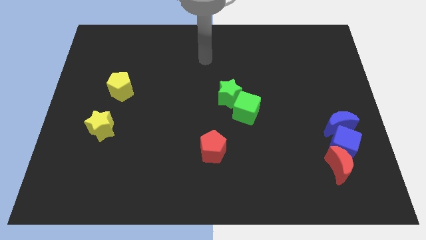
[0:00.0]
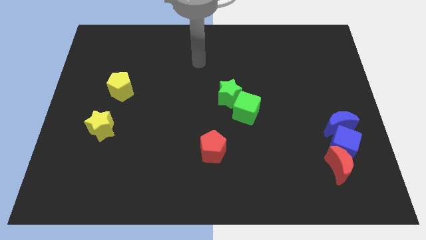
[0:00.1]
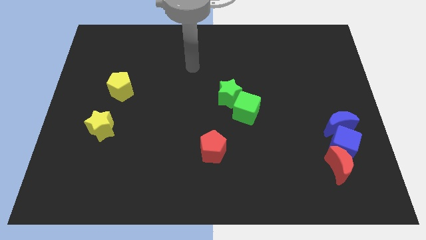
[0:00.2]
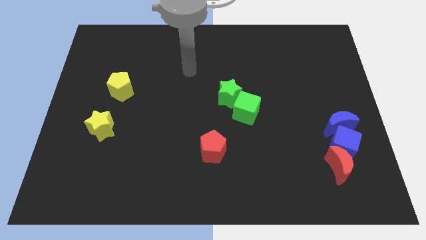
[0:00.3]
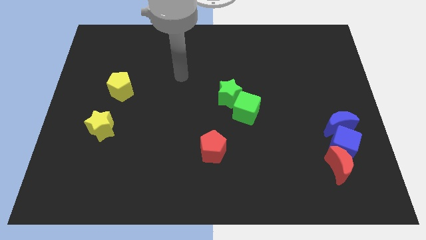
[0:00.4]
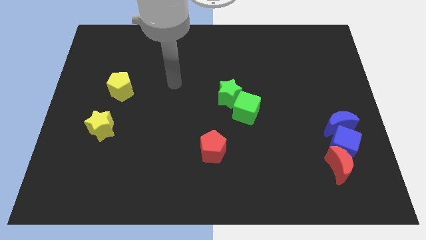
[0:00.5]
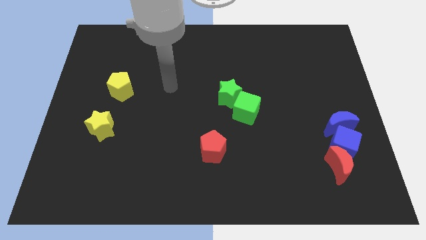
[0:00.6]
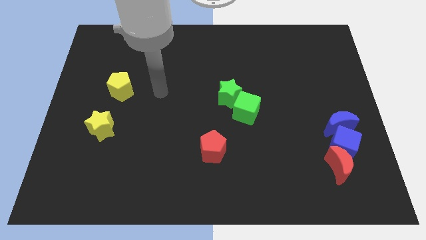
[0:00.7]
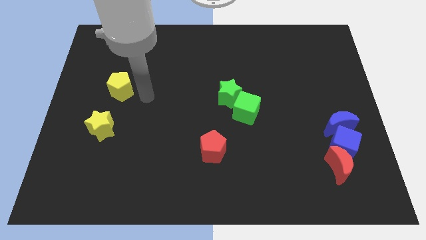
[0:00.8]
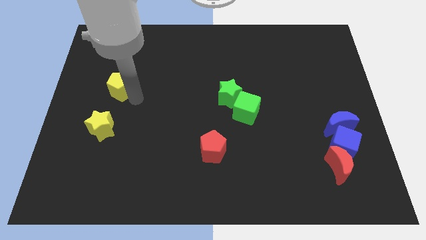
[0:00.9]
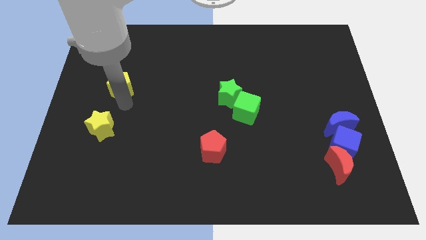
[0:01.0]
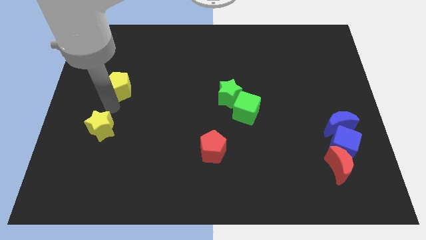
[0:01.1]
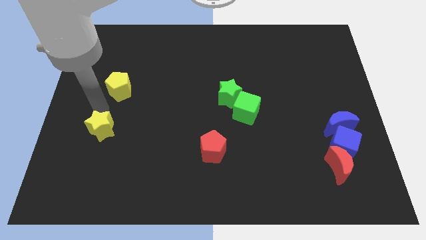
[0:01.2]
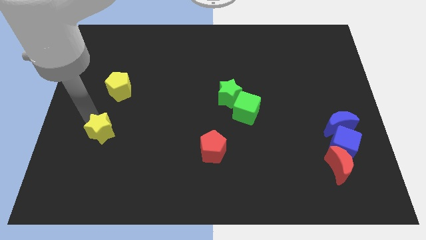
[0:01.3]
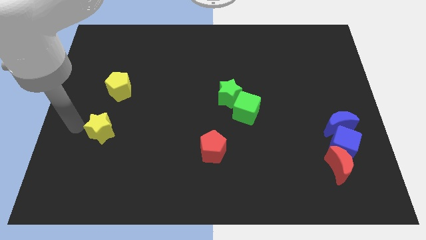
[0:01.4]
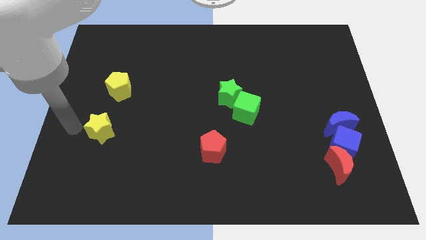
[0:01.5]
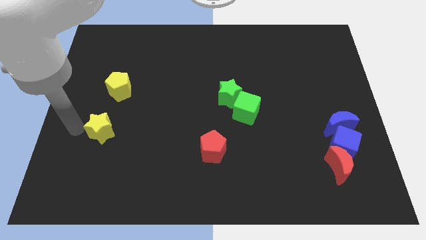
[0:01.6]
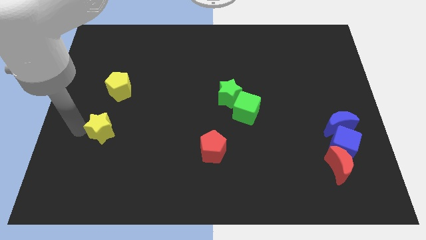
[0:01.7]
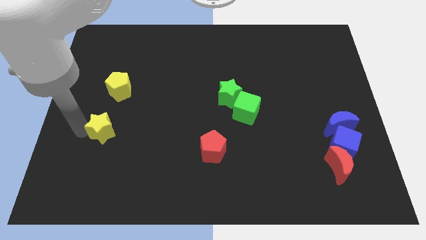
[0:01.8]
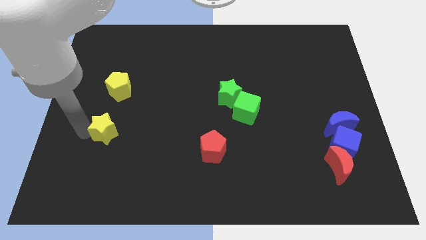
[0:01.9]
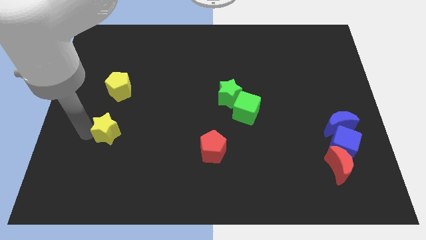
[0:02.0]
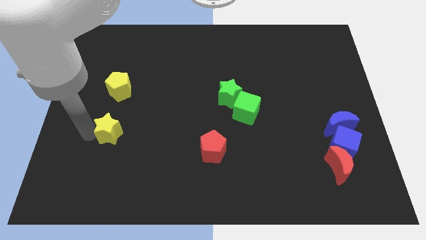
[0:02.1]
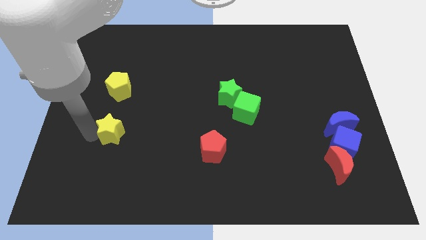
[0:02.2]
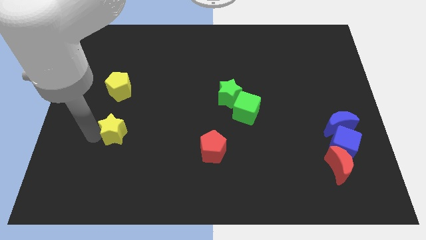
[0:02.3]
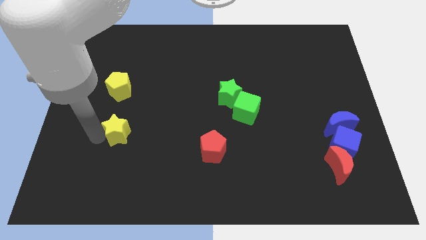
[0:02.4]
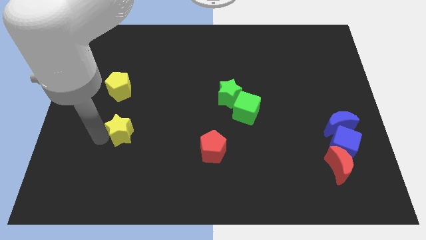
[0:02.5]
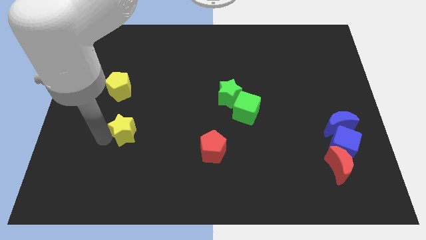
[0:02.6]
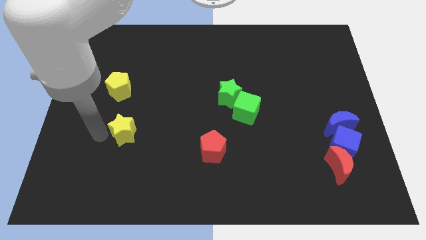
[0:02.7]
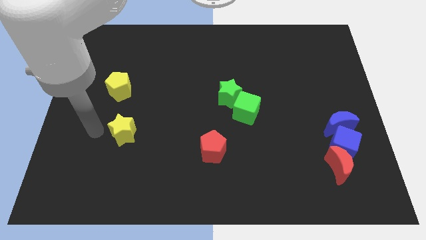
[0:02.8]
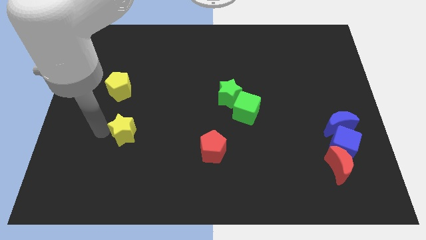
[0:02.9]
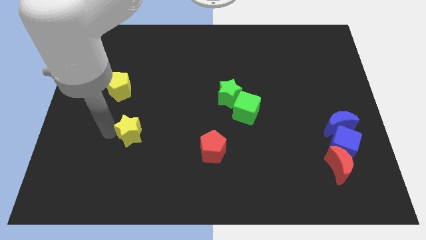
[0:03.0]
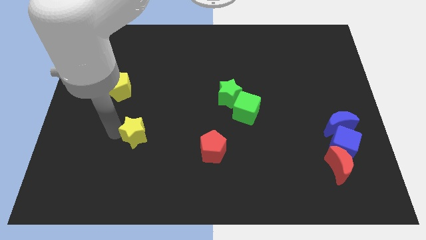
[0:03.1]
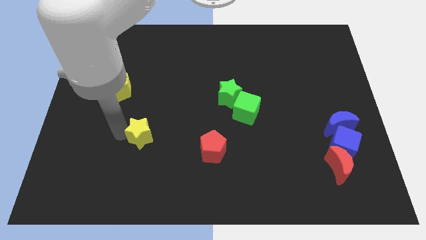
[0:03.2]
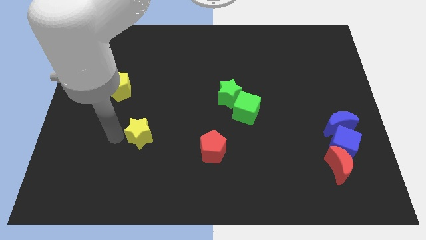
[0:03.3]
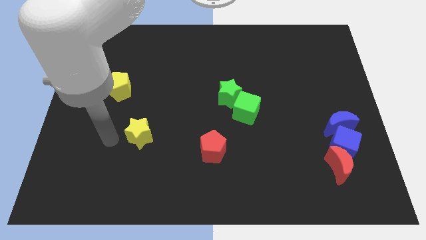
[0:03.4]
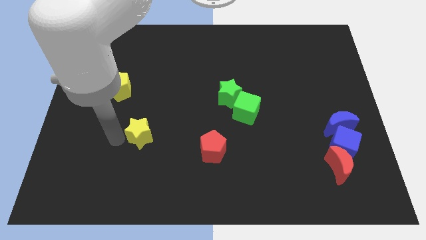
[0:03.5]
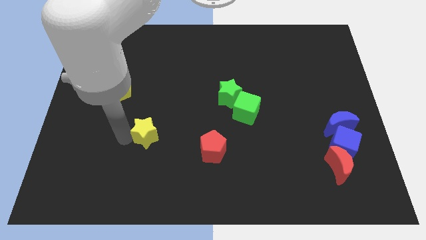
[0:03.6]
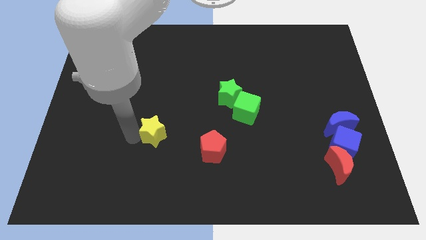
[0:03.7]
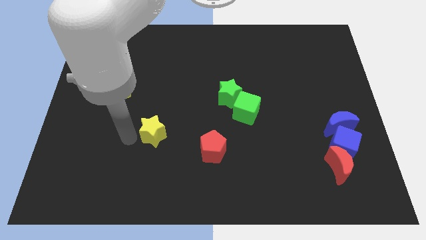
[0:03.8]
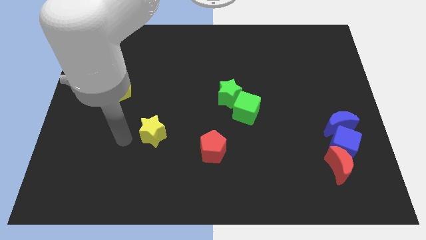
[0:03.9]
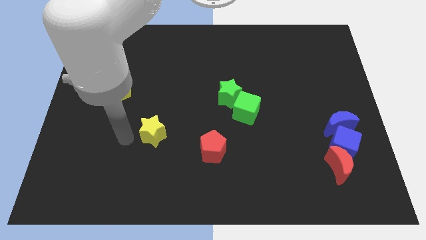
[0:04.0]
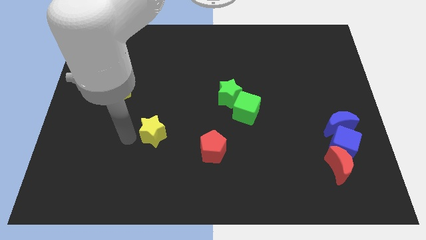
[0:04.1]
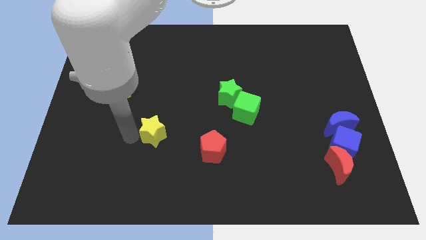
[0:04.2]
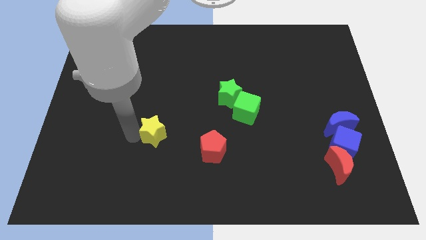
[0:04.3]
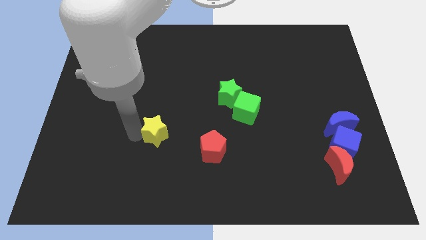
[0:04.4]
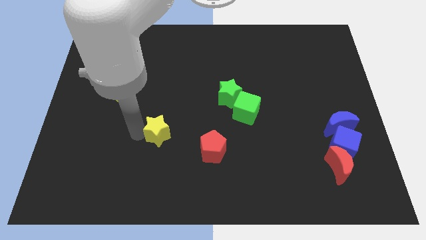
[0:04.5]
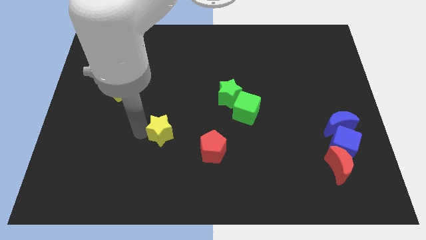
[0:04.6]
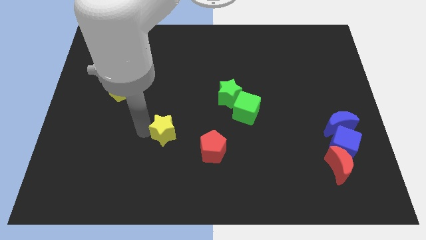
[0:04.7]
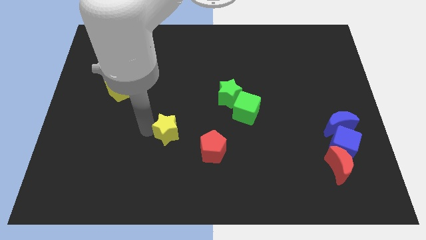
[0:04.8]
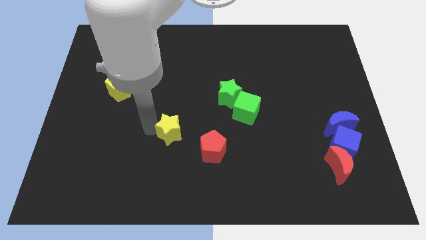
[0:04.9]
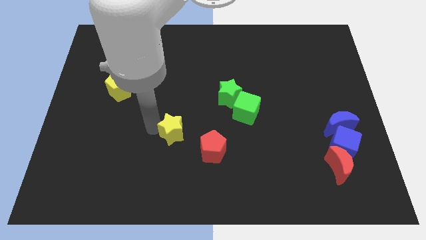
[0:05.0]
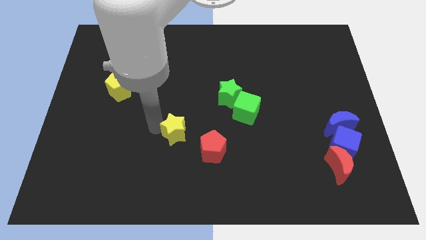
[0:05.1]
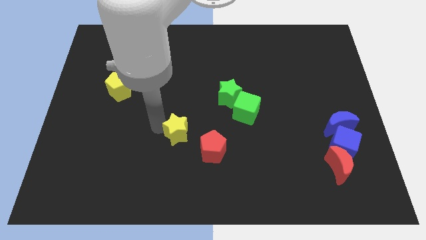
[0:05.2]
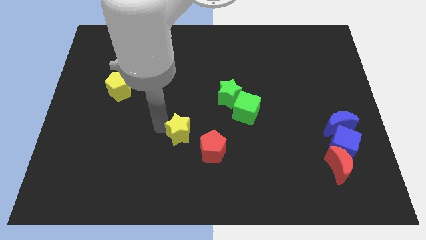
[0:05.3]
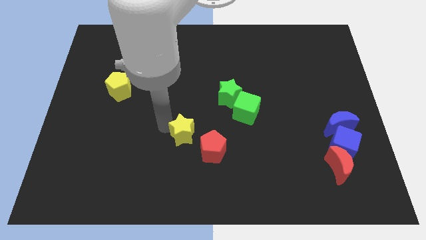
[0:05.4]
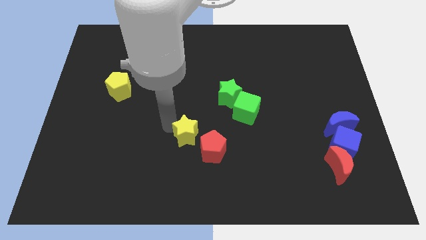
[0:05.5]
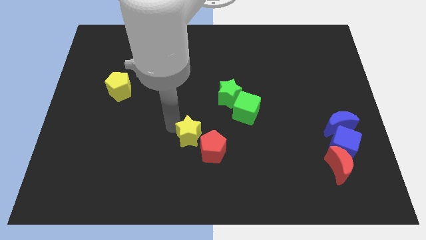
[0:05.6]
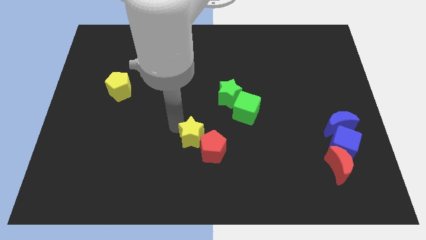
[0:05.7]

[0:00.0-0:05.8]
slide the yellow star to the red pentagon

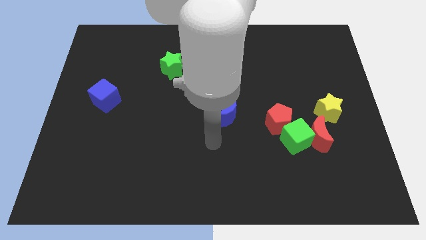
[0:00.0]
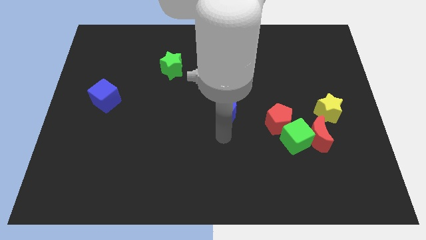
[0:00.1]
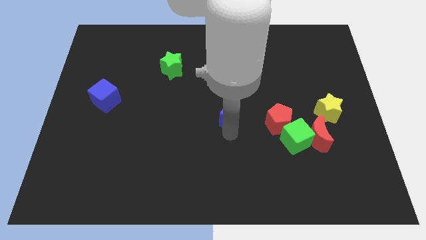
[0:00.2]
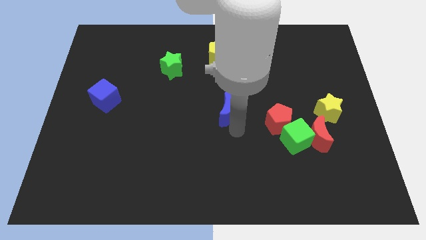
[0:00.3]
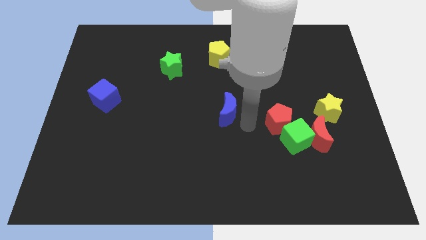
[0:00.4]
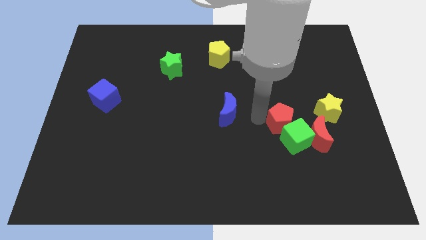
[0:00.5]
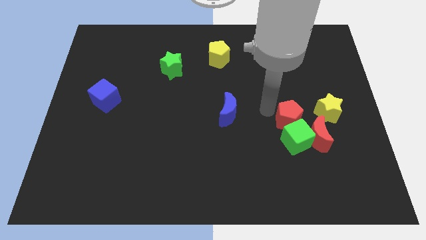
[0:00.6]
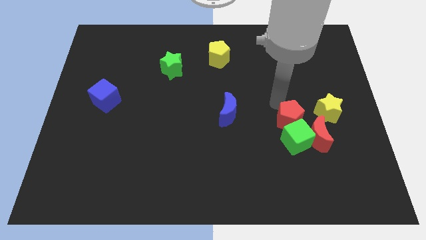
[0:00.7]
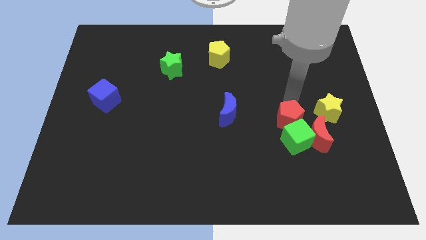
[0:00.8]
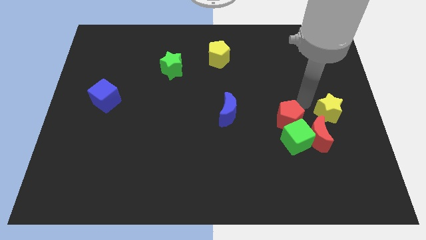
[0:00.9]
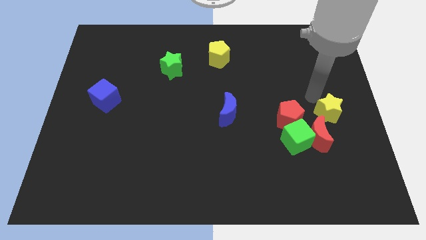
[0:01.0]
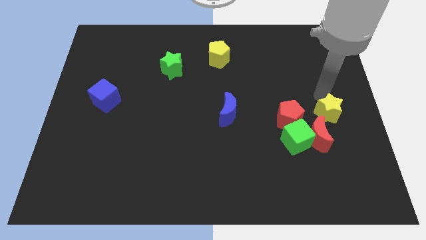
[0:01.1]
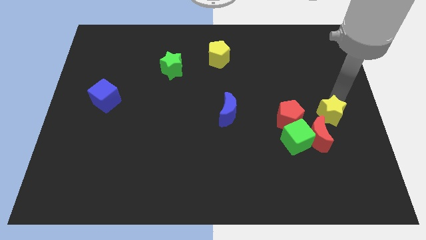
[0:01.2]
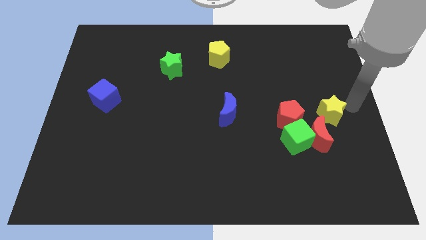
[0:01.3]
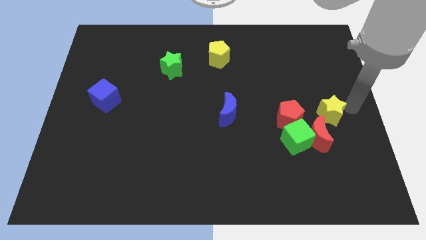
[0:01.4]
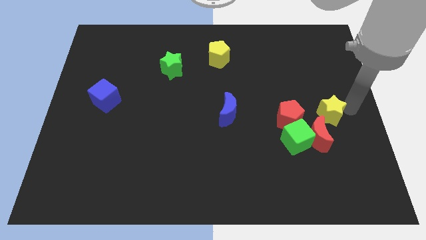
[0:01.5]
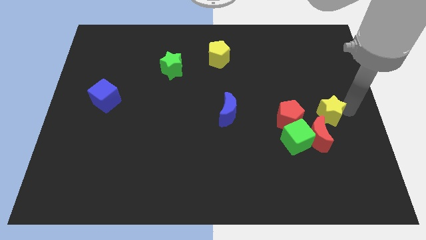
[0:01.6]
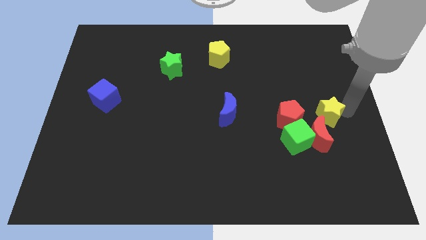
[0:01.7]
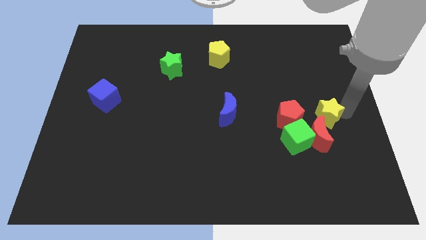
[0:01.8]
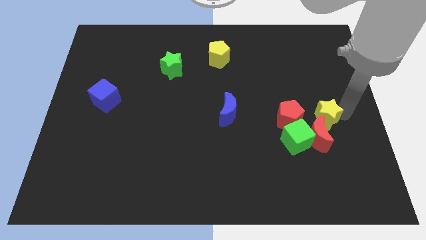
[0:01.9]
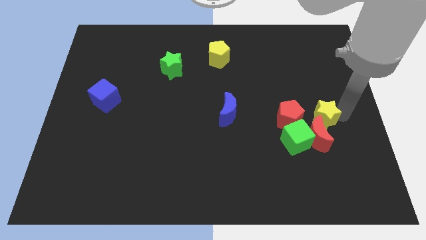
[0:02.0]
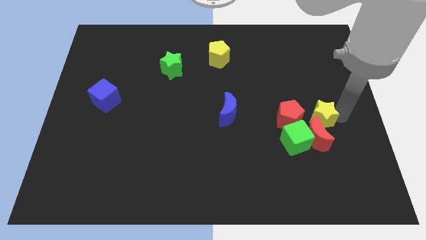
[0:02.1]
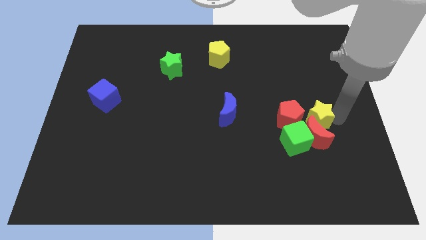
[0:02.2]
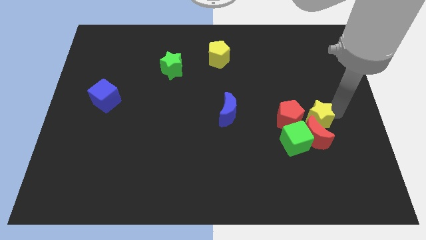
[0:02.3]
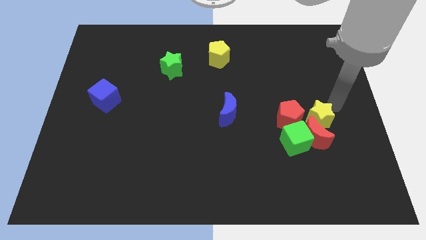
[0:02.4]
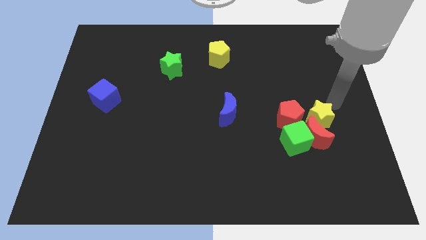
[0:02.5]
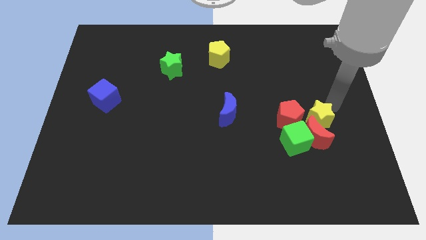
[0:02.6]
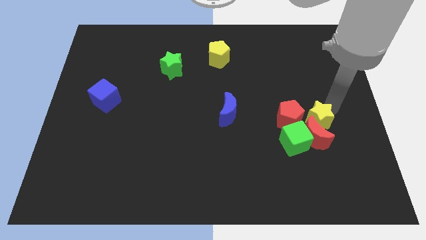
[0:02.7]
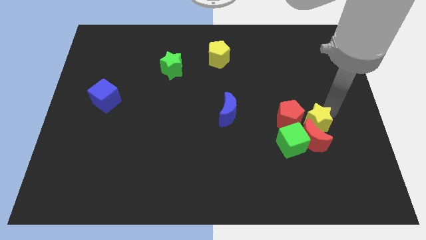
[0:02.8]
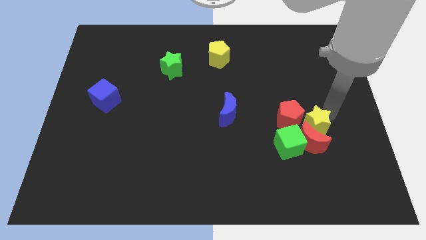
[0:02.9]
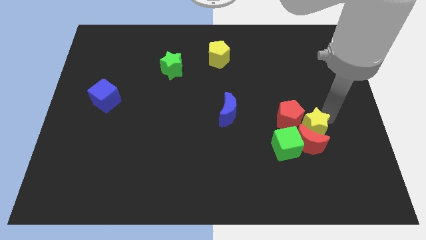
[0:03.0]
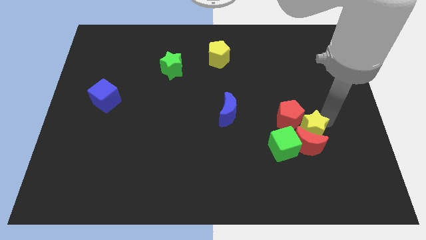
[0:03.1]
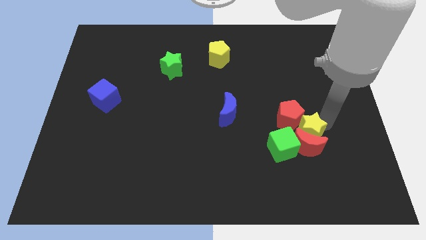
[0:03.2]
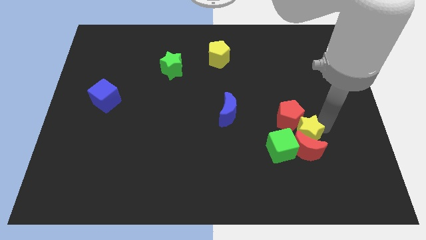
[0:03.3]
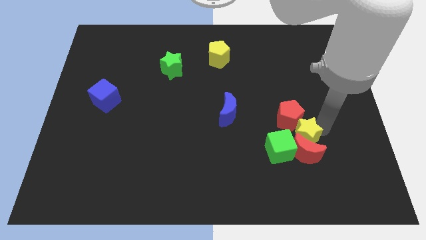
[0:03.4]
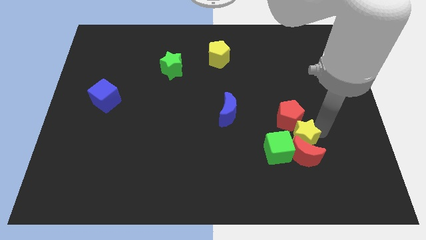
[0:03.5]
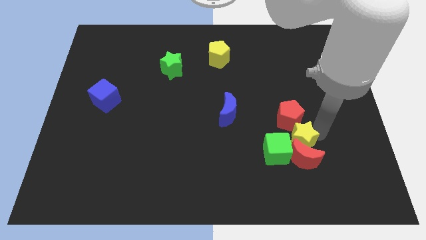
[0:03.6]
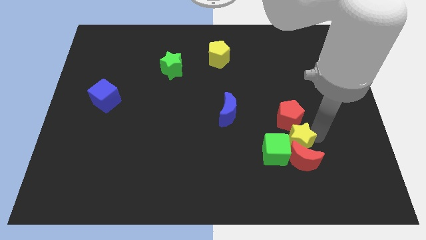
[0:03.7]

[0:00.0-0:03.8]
put the yellow star to the green cube
